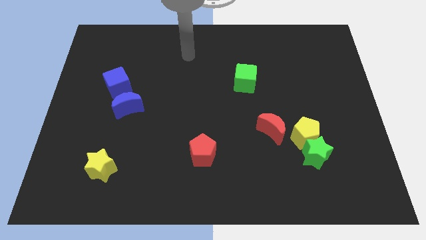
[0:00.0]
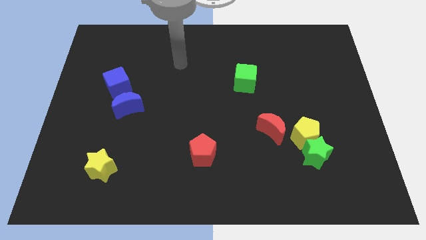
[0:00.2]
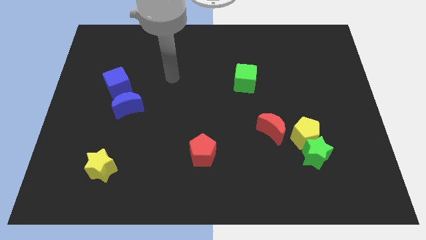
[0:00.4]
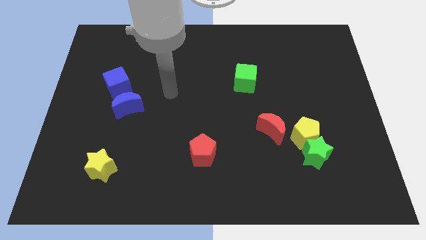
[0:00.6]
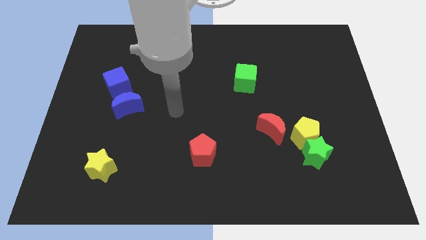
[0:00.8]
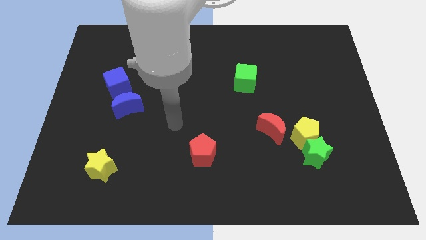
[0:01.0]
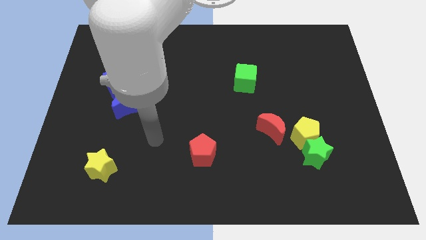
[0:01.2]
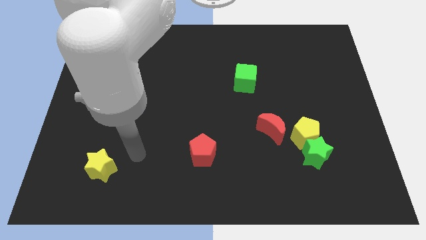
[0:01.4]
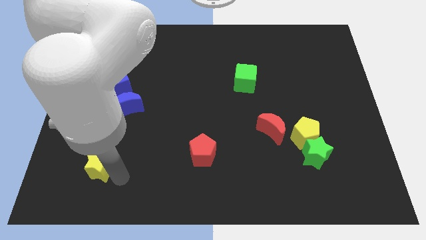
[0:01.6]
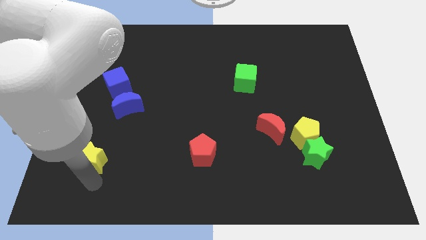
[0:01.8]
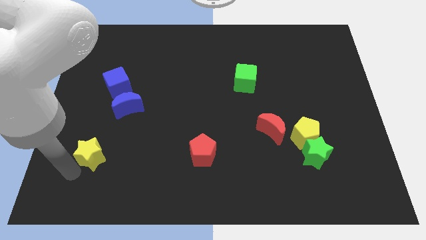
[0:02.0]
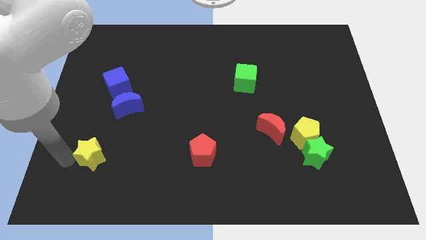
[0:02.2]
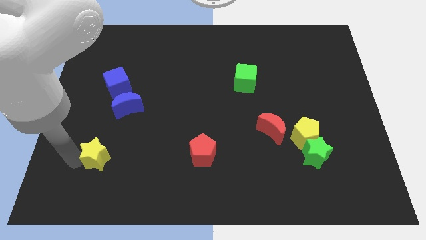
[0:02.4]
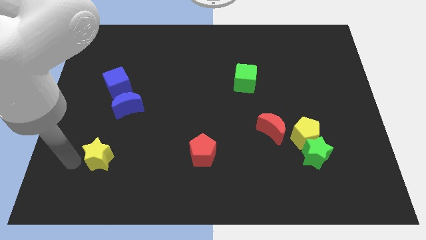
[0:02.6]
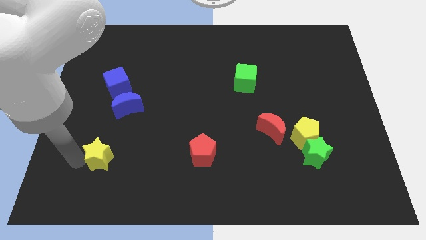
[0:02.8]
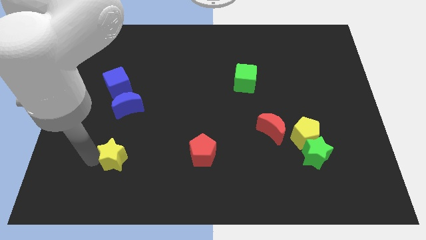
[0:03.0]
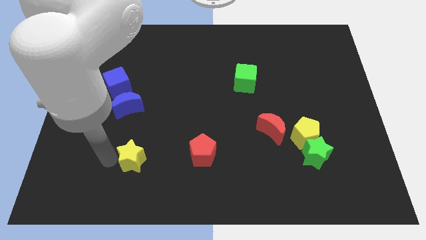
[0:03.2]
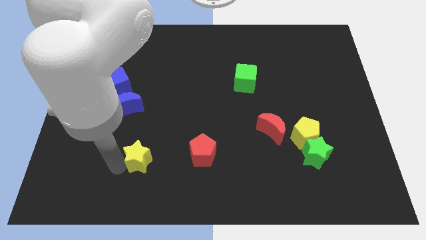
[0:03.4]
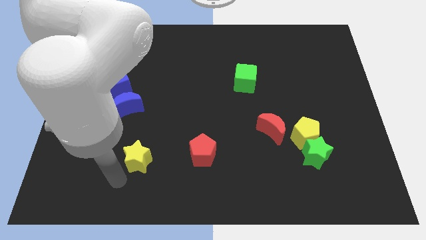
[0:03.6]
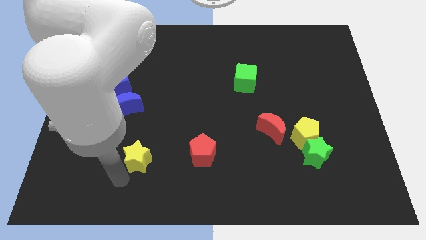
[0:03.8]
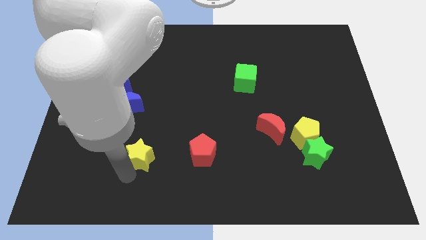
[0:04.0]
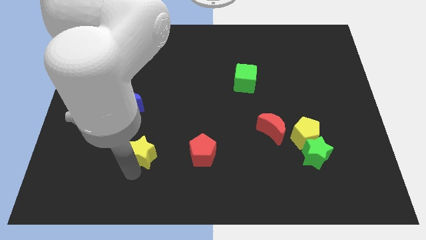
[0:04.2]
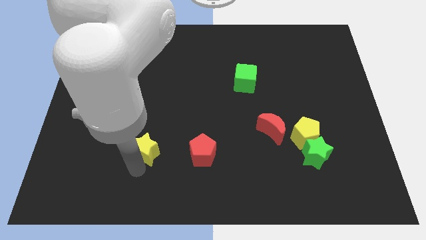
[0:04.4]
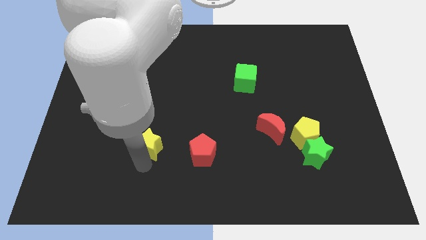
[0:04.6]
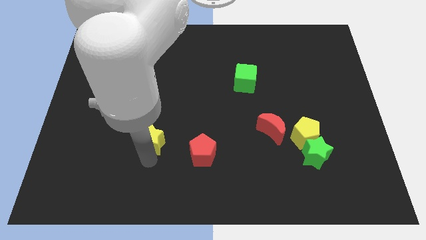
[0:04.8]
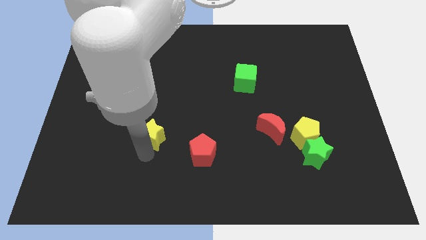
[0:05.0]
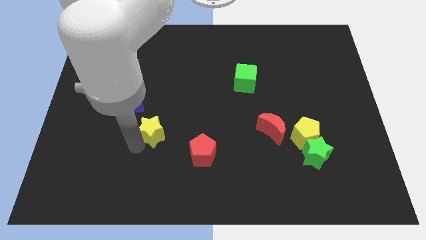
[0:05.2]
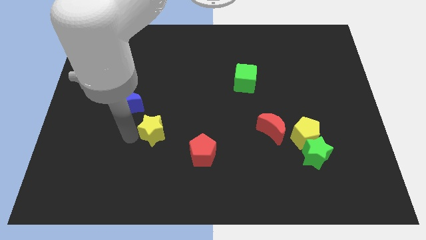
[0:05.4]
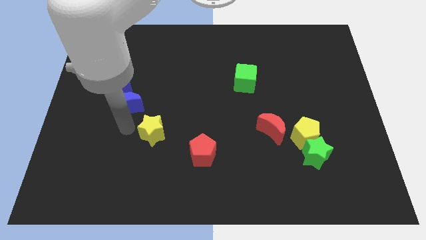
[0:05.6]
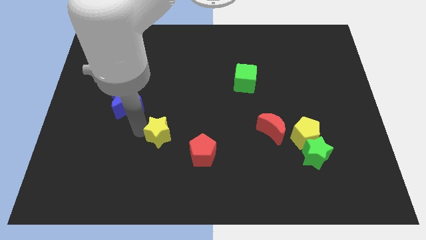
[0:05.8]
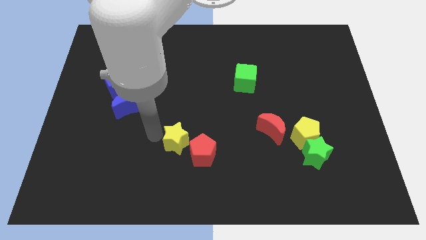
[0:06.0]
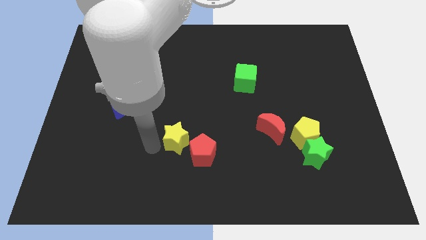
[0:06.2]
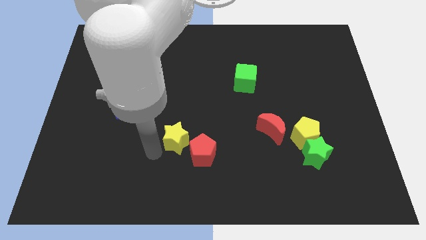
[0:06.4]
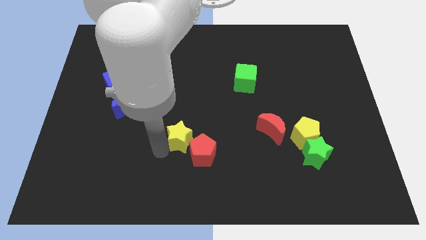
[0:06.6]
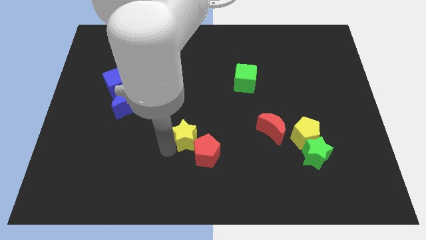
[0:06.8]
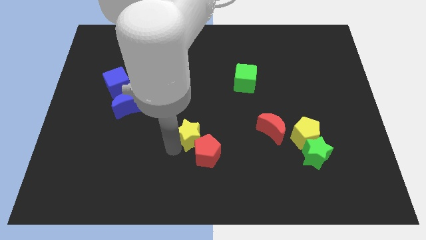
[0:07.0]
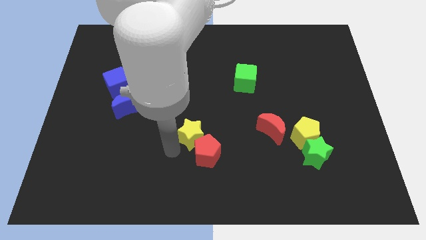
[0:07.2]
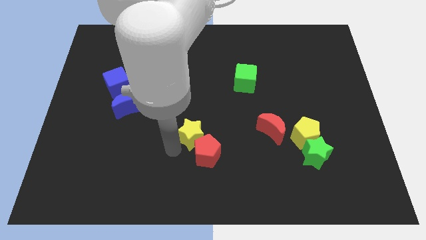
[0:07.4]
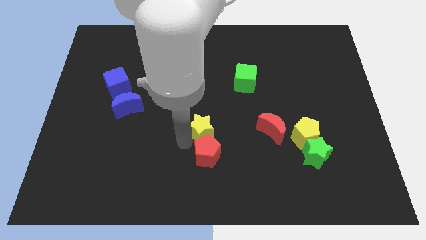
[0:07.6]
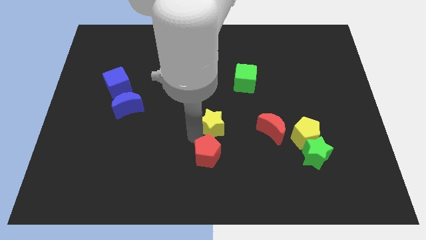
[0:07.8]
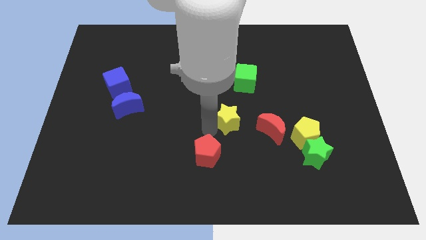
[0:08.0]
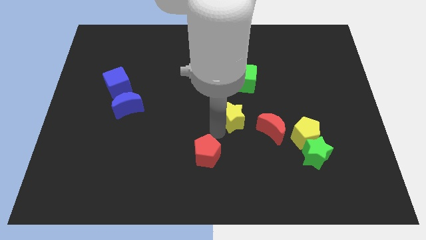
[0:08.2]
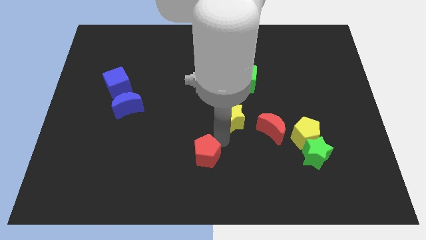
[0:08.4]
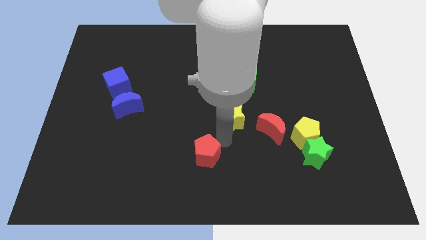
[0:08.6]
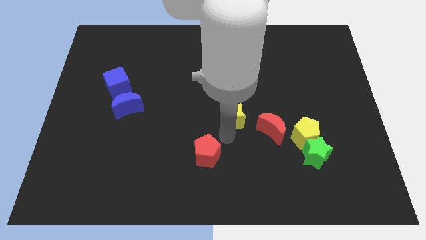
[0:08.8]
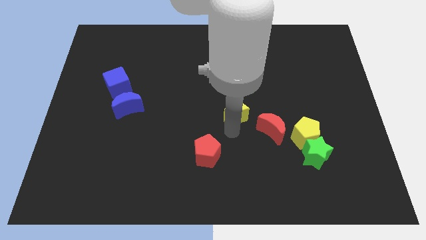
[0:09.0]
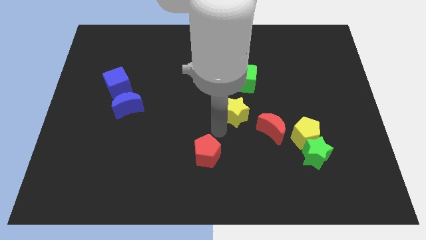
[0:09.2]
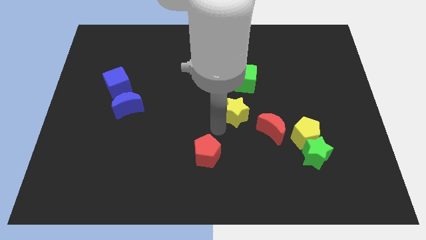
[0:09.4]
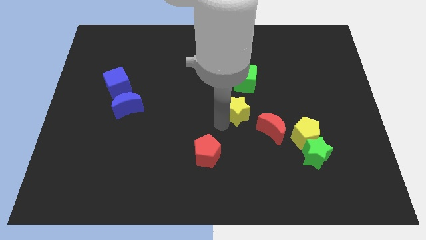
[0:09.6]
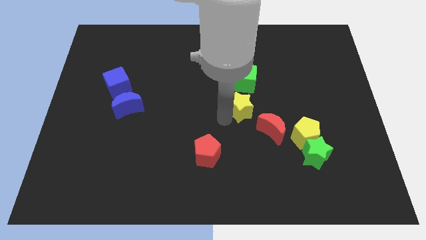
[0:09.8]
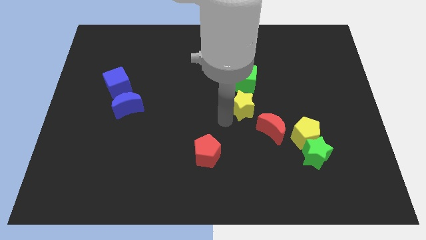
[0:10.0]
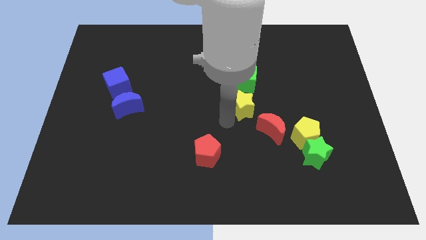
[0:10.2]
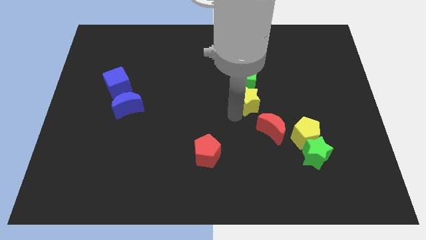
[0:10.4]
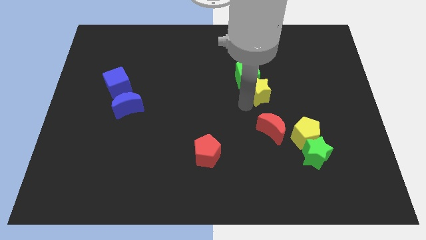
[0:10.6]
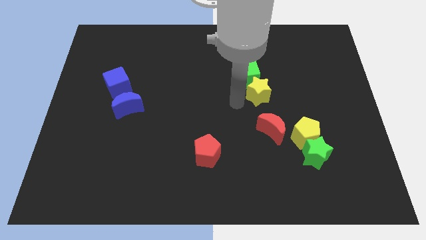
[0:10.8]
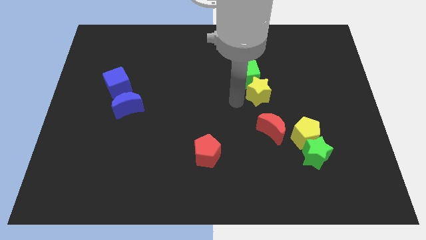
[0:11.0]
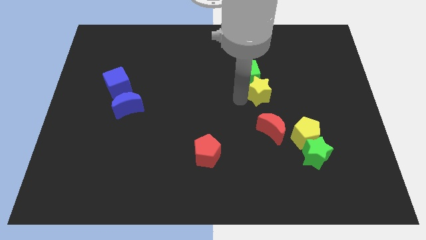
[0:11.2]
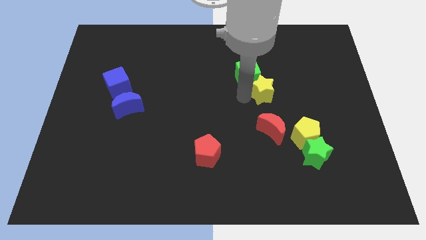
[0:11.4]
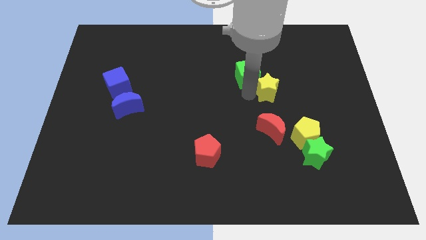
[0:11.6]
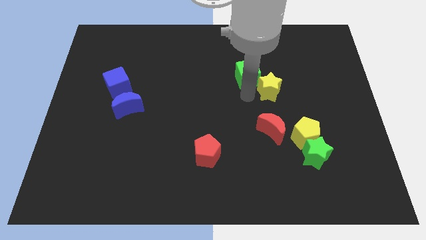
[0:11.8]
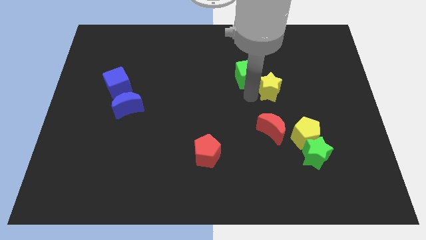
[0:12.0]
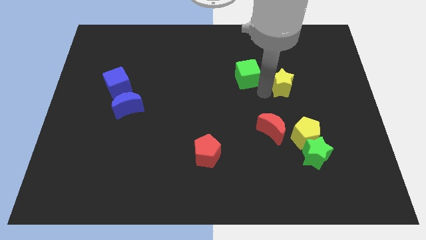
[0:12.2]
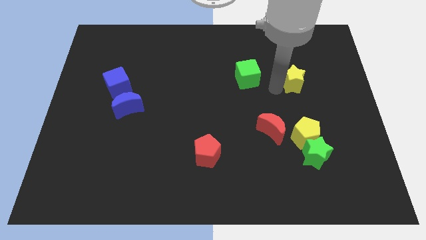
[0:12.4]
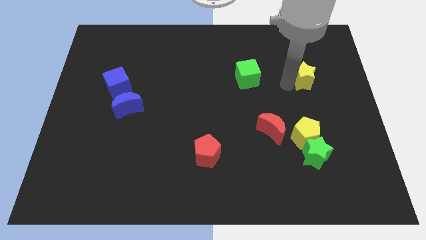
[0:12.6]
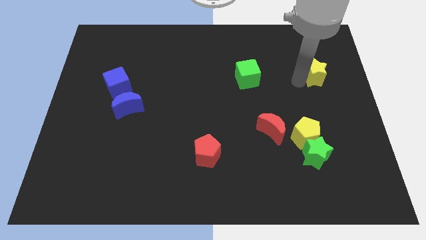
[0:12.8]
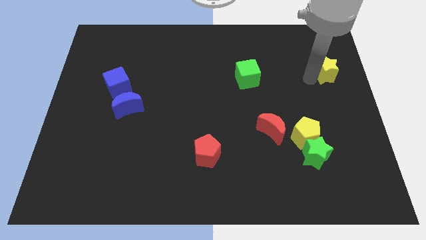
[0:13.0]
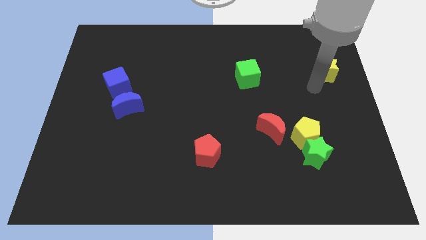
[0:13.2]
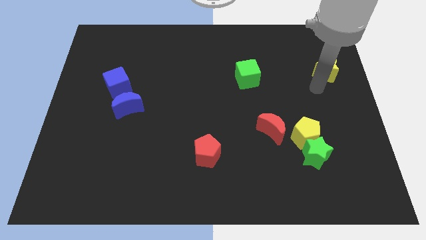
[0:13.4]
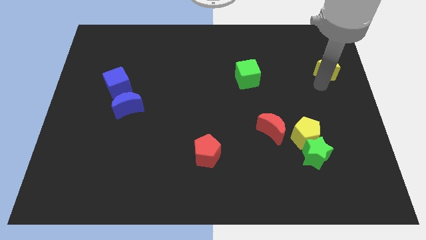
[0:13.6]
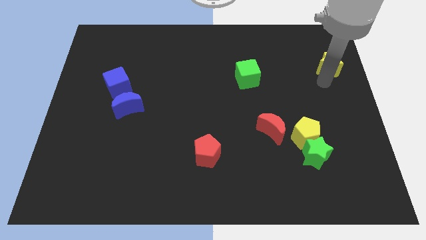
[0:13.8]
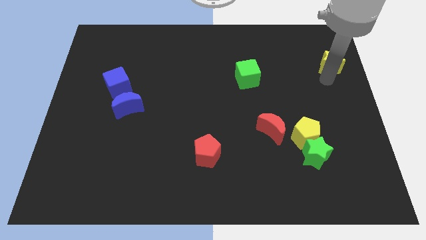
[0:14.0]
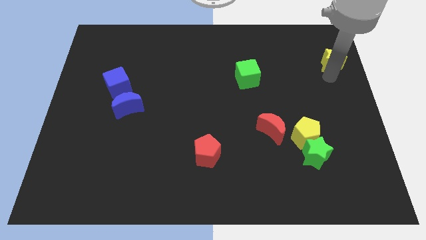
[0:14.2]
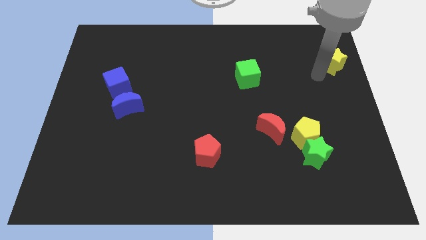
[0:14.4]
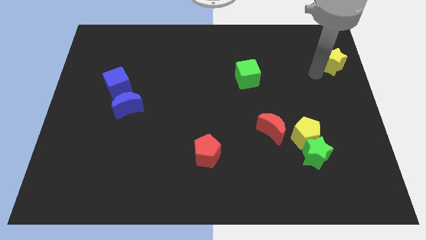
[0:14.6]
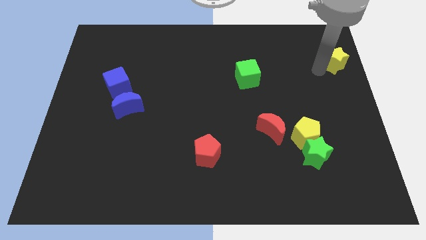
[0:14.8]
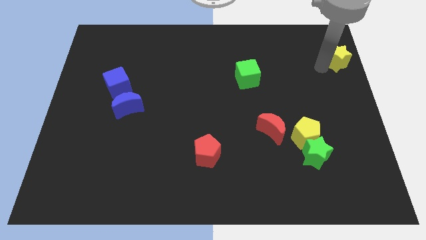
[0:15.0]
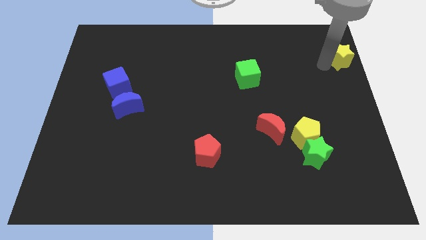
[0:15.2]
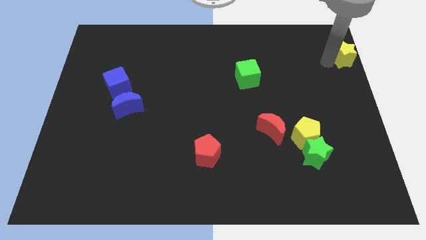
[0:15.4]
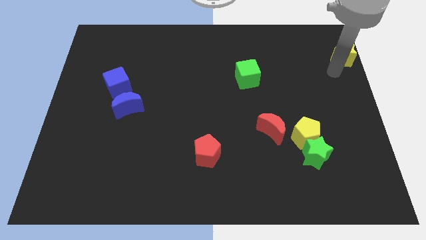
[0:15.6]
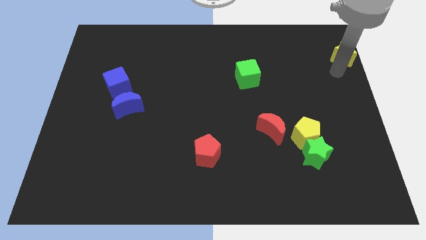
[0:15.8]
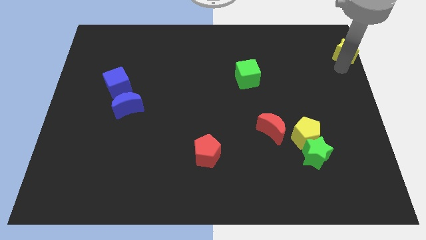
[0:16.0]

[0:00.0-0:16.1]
move the yellow star to the top right of the board
